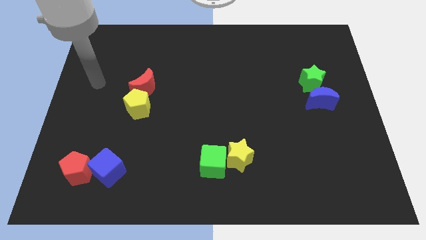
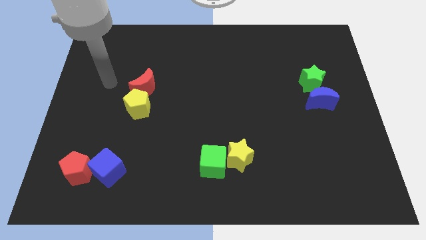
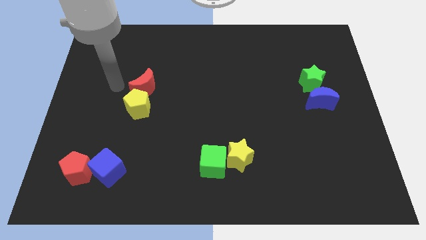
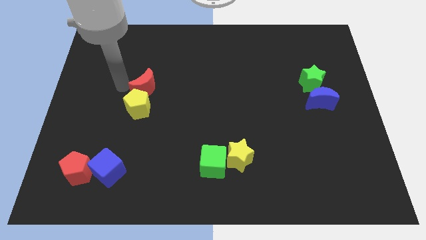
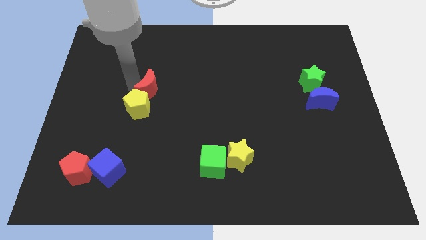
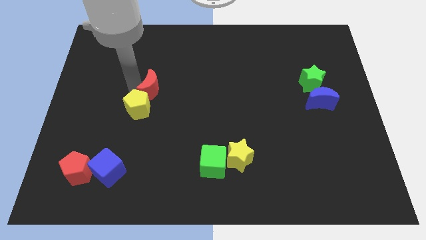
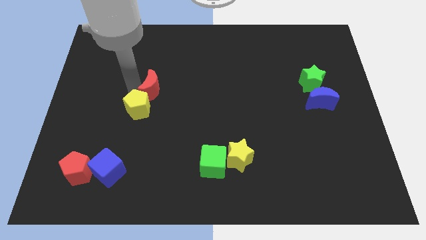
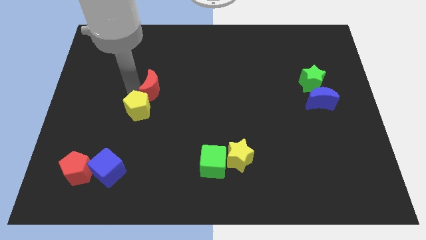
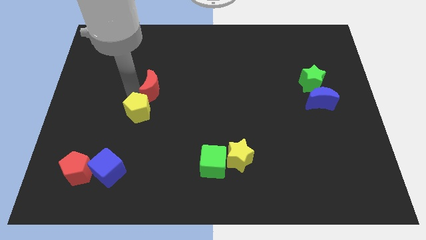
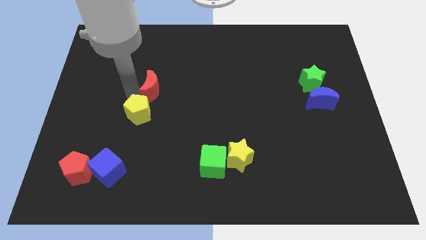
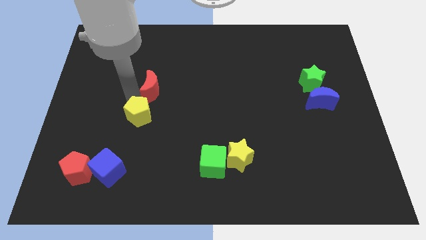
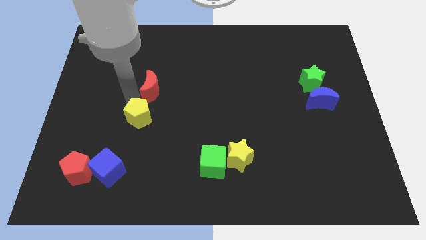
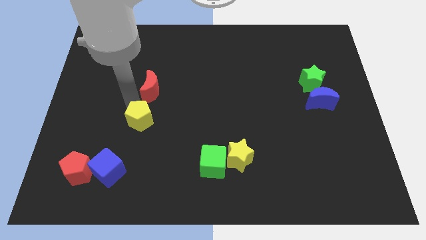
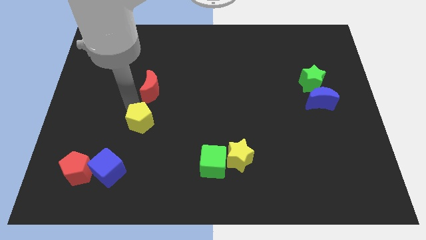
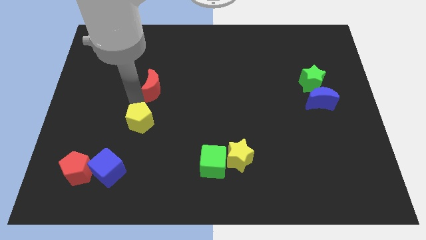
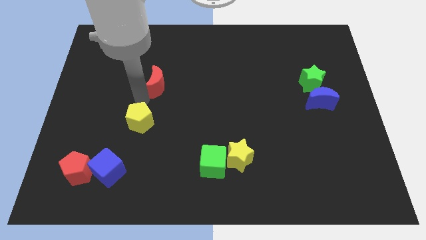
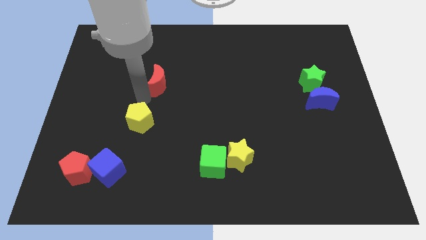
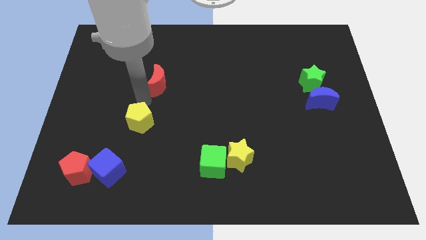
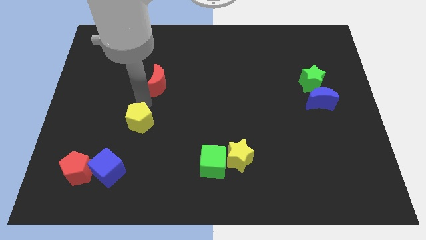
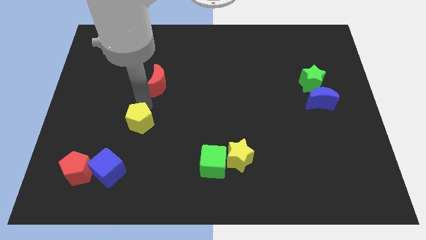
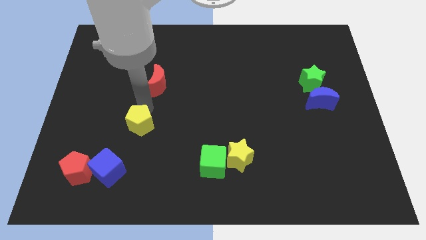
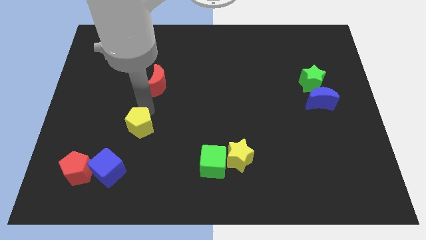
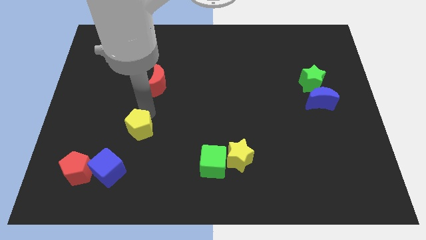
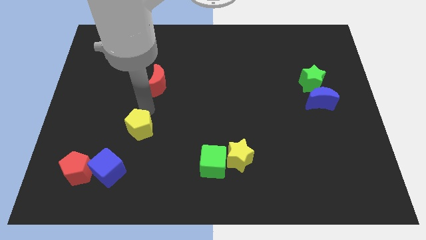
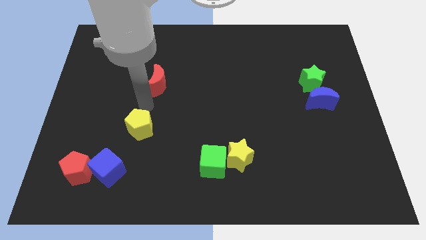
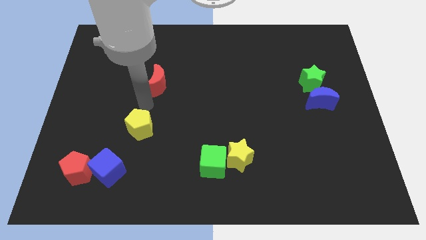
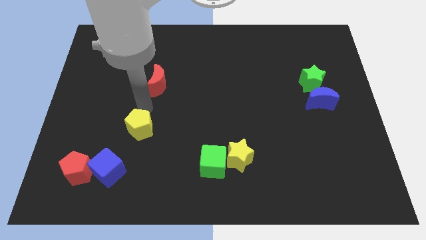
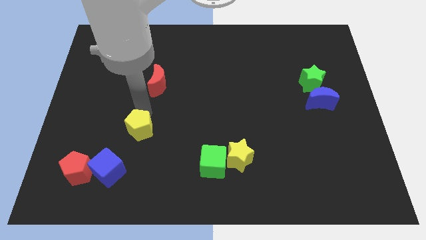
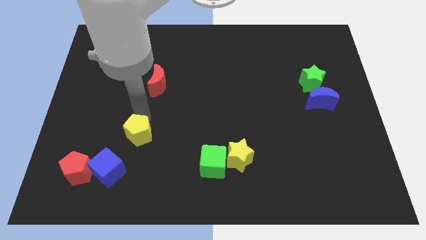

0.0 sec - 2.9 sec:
slightly push the yellow pentagon downwards

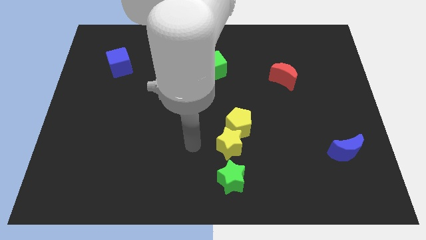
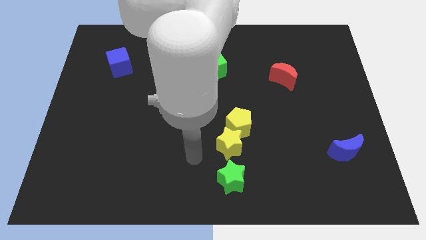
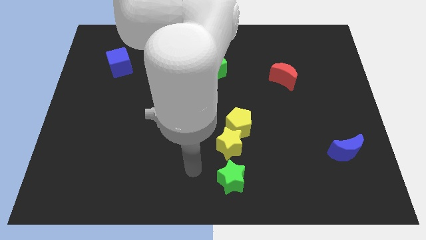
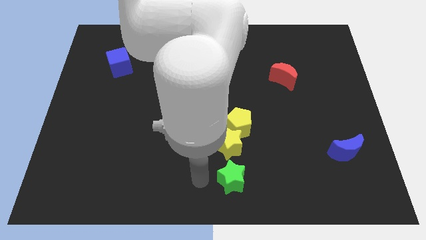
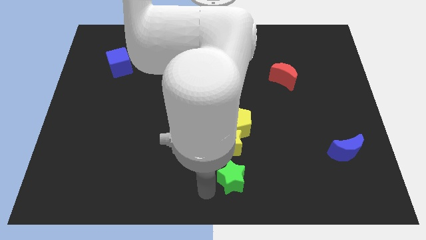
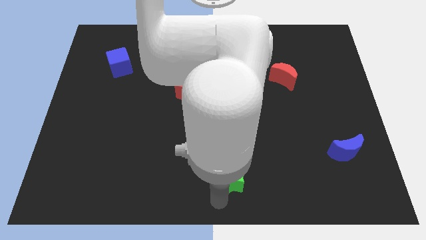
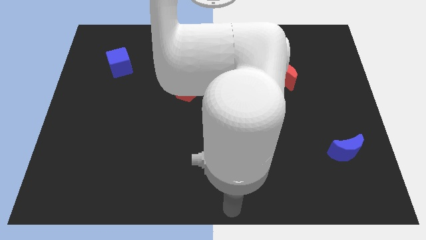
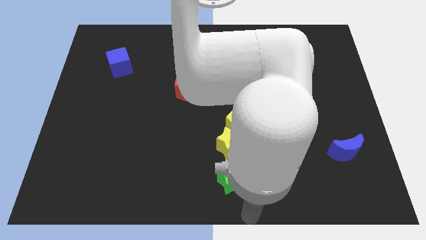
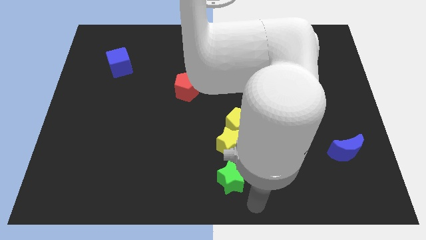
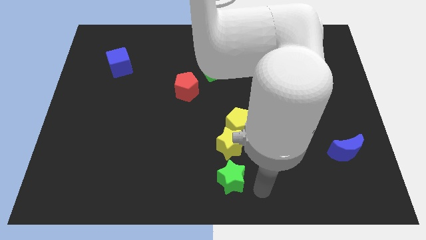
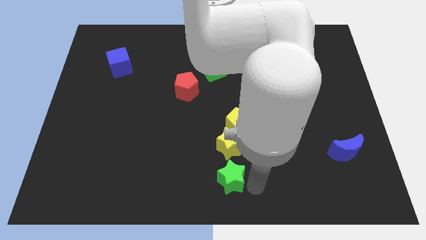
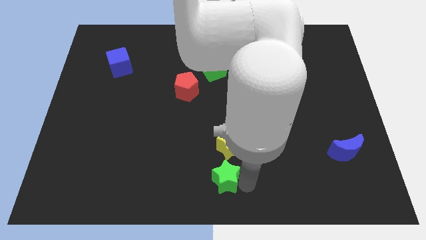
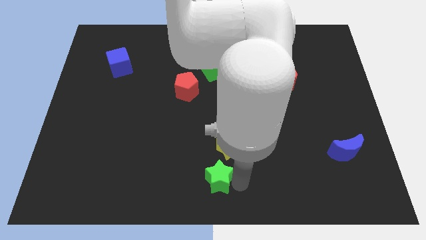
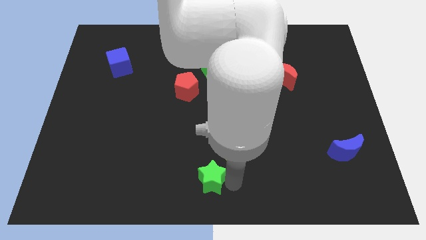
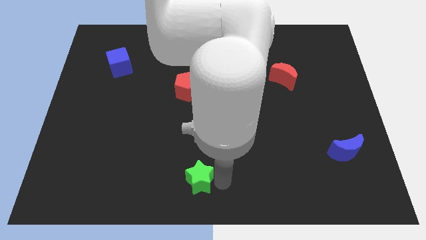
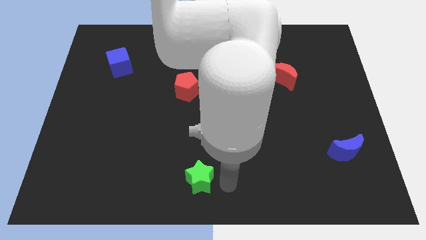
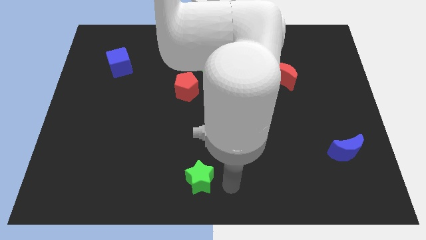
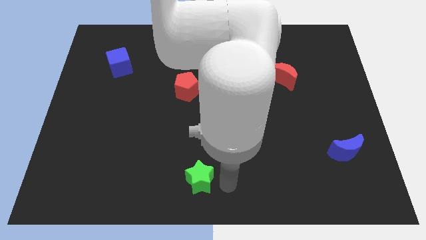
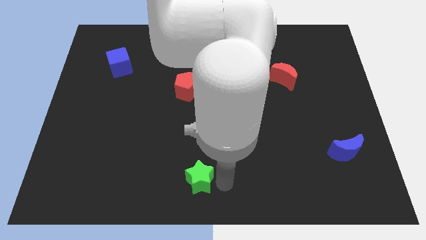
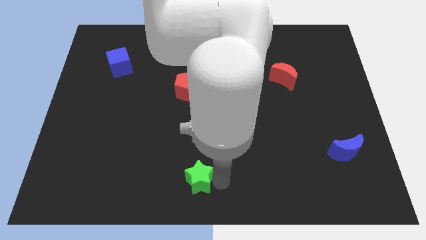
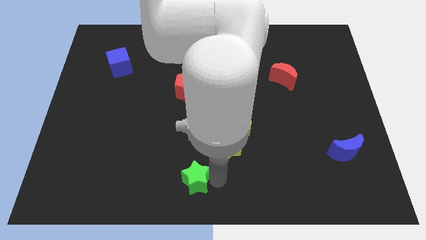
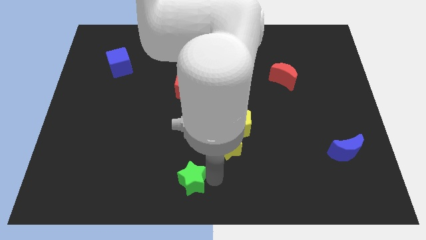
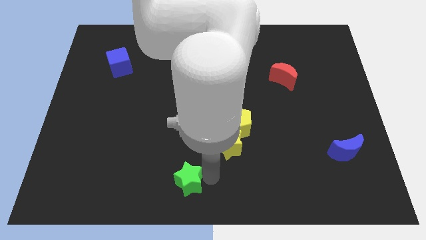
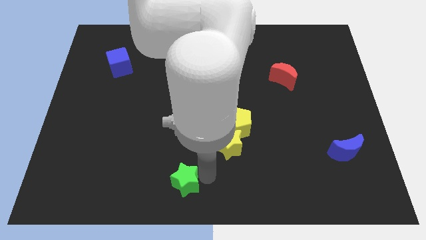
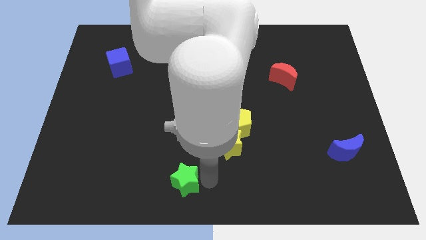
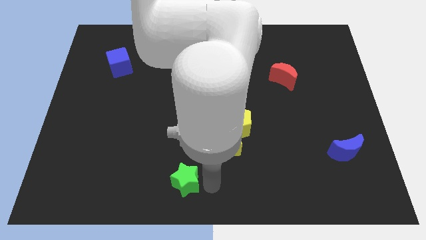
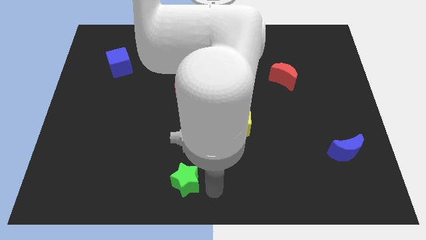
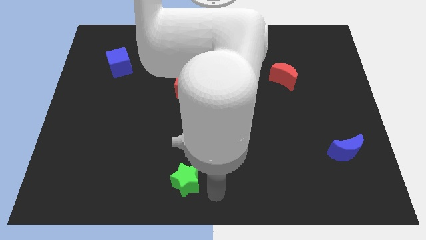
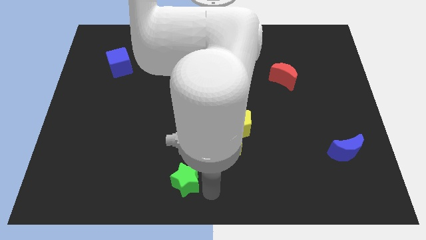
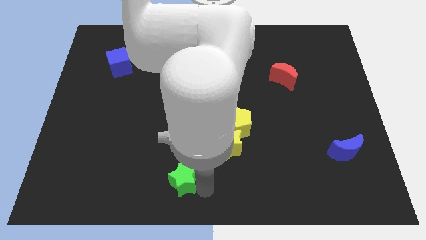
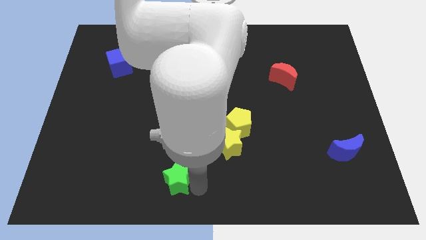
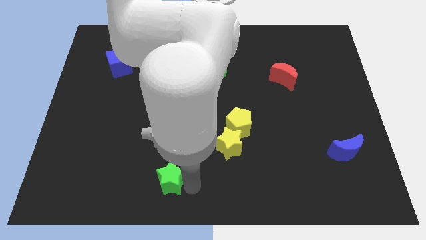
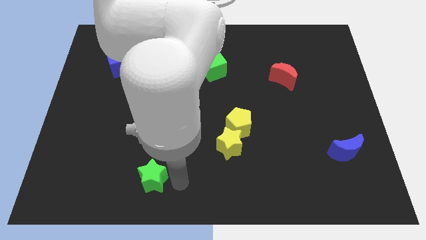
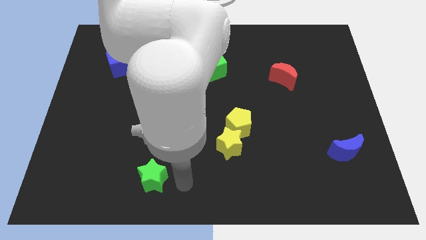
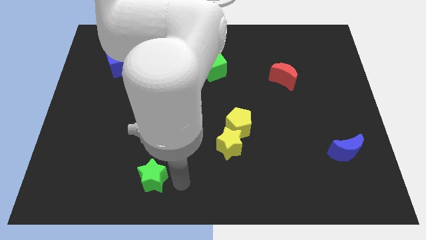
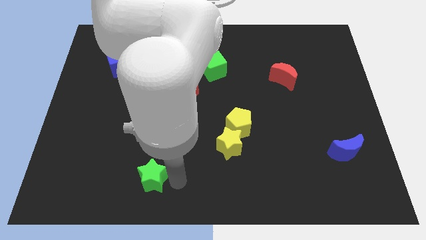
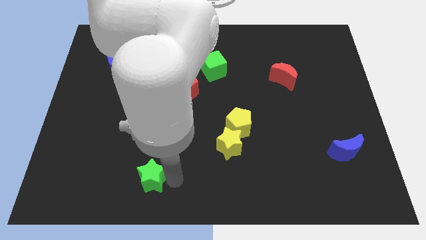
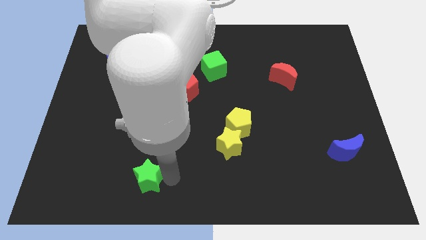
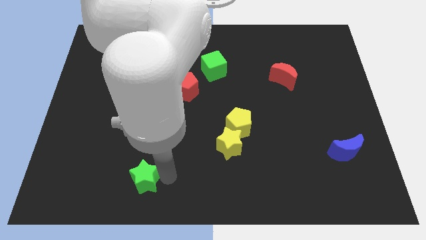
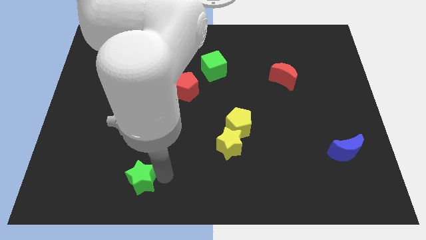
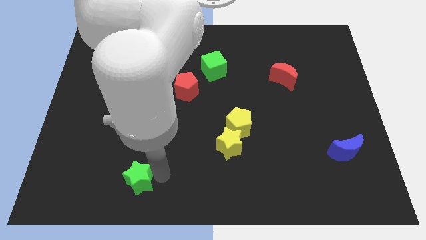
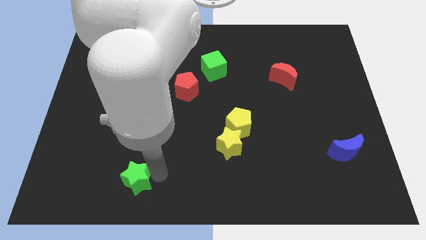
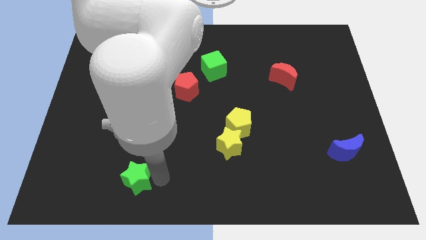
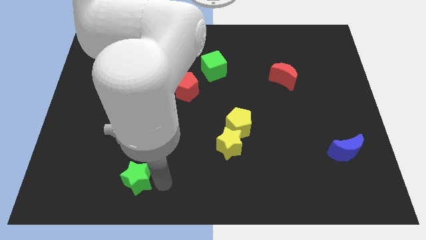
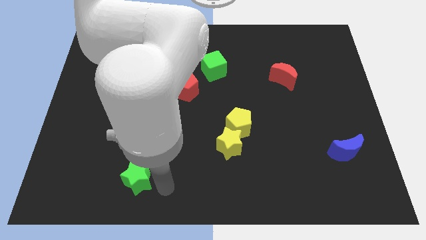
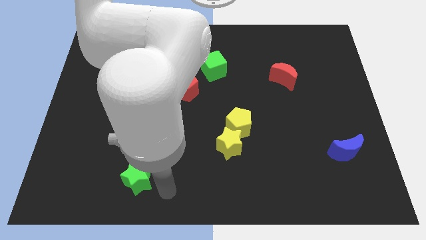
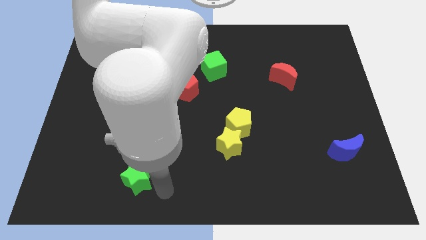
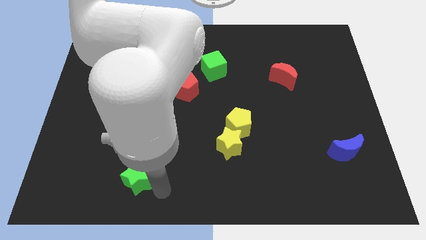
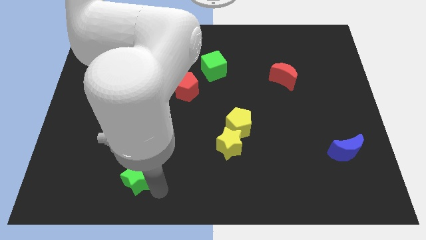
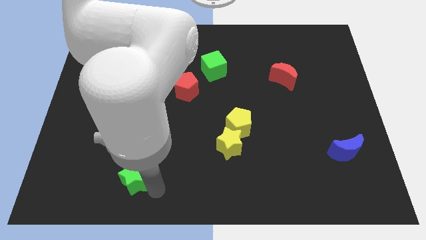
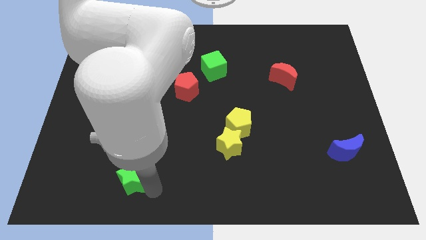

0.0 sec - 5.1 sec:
push the green star left
